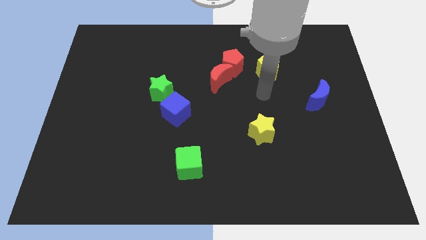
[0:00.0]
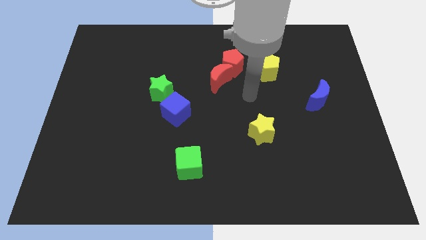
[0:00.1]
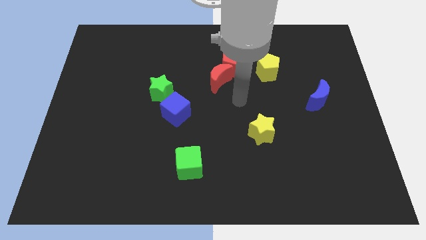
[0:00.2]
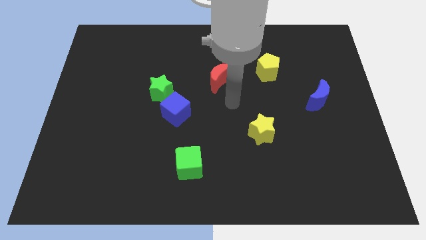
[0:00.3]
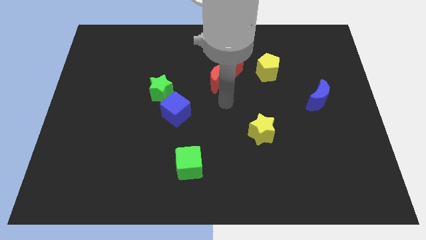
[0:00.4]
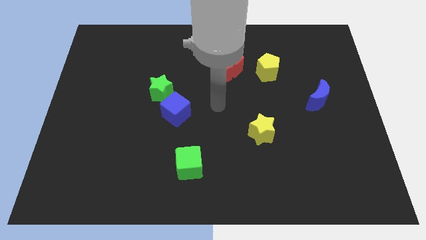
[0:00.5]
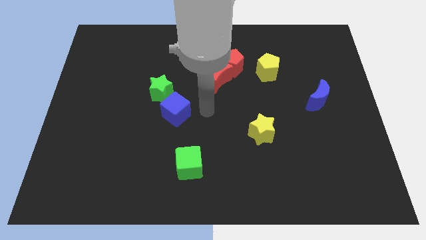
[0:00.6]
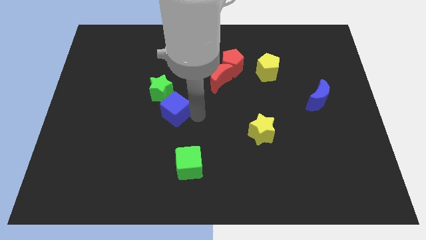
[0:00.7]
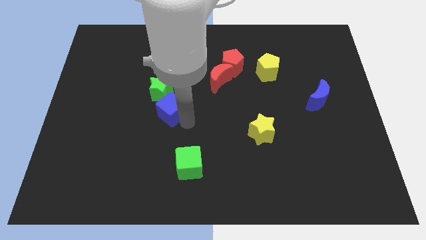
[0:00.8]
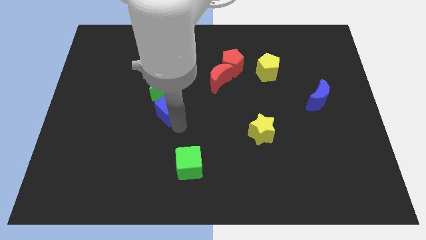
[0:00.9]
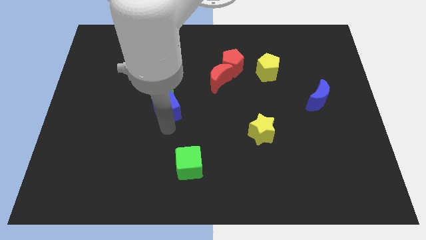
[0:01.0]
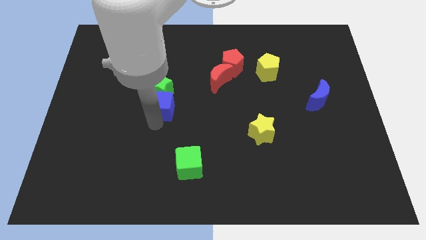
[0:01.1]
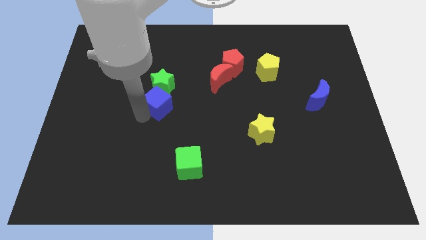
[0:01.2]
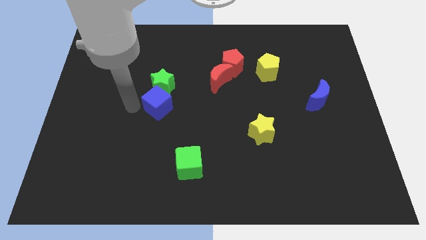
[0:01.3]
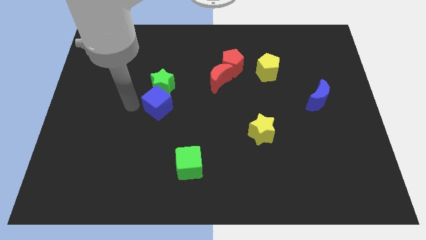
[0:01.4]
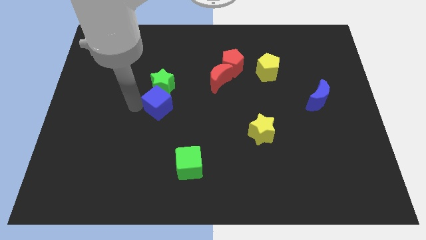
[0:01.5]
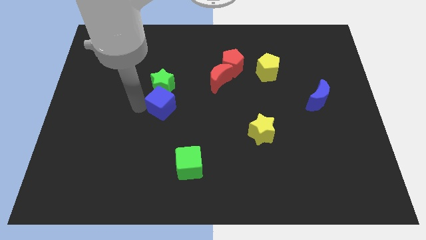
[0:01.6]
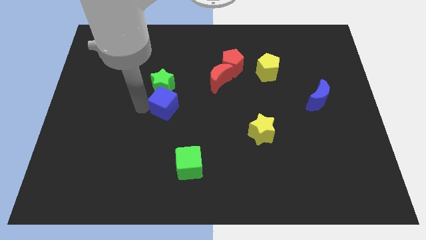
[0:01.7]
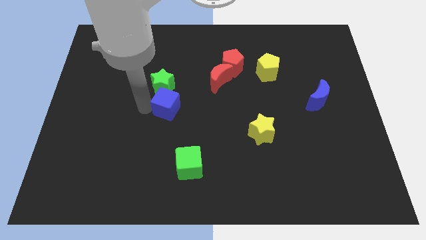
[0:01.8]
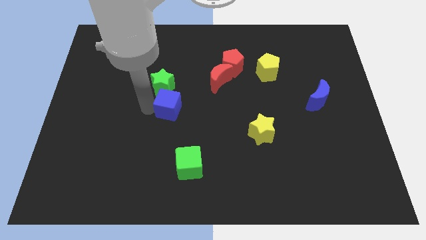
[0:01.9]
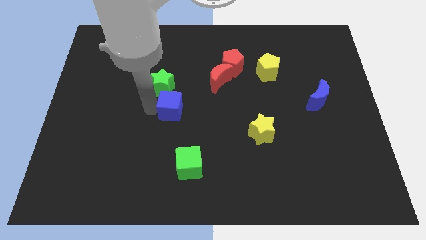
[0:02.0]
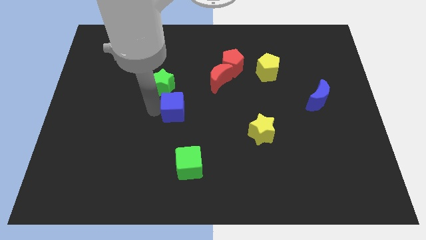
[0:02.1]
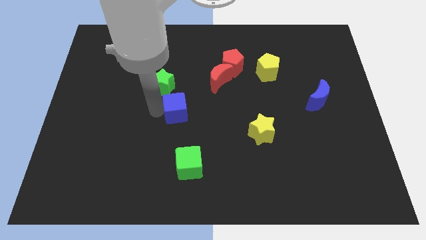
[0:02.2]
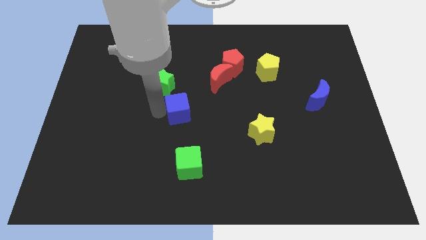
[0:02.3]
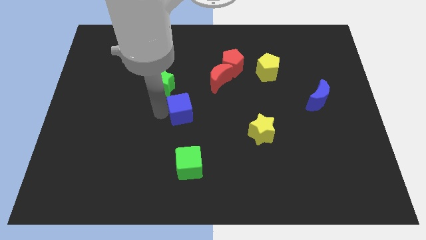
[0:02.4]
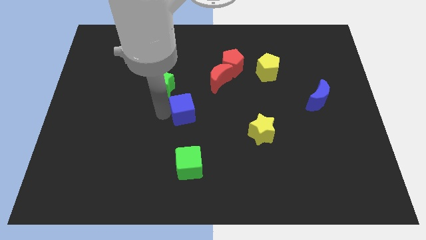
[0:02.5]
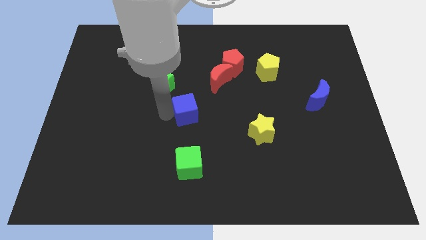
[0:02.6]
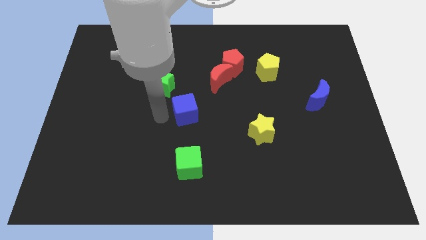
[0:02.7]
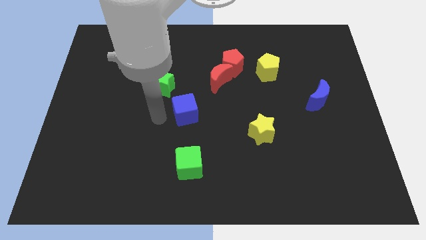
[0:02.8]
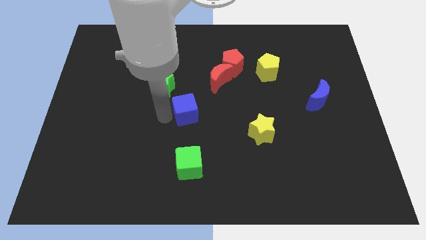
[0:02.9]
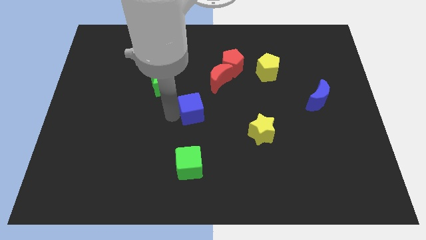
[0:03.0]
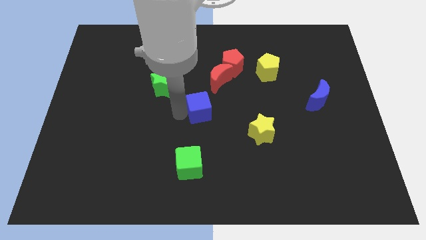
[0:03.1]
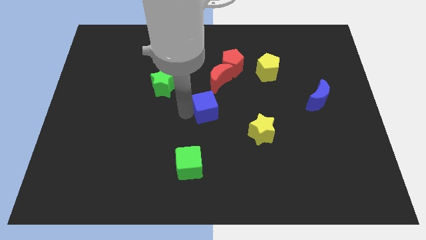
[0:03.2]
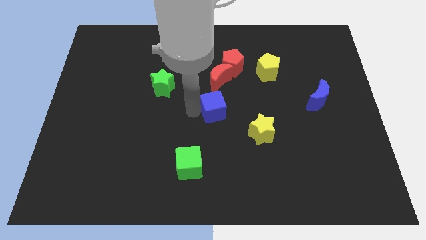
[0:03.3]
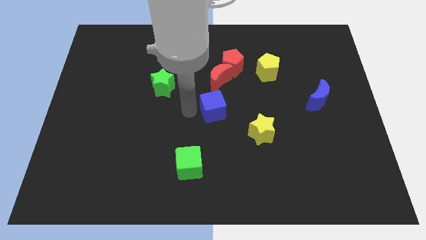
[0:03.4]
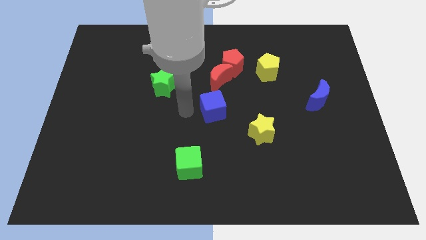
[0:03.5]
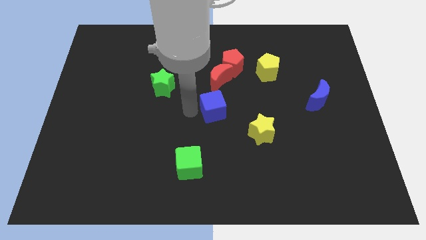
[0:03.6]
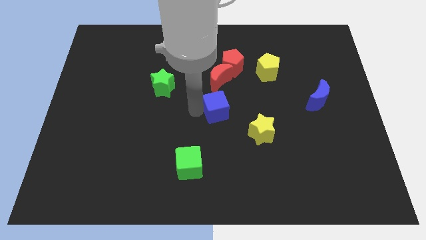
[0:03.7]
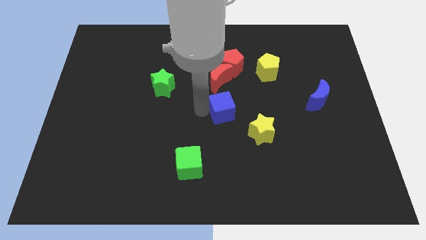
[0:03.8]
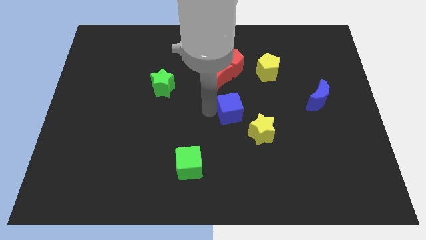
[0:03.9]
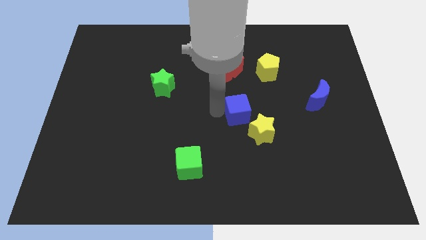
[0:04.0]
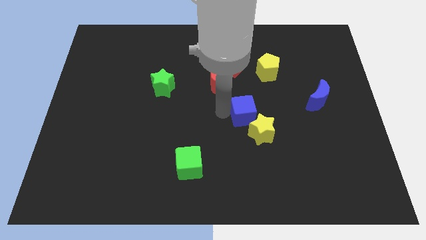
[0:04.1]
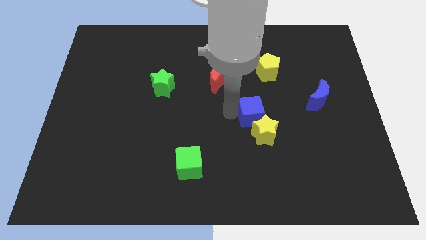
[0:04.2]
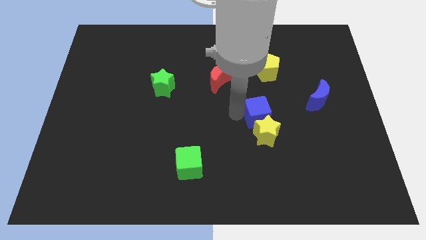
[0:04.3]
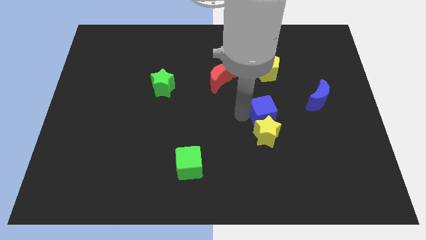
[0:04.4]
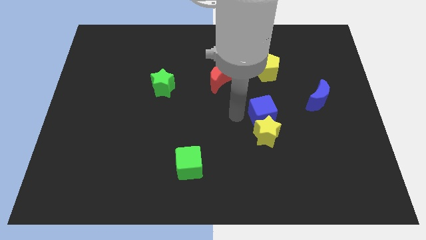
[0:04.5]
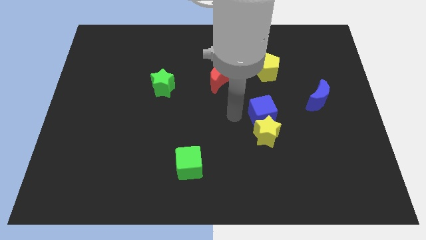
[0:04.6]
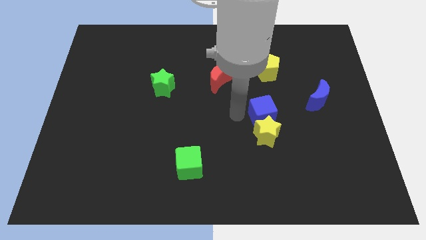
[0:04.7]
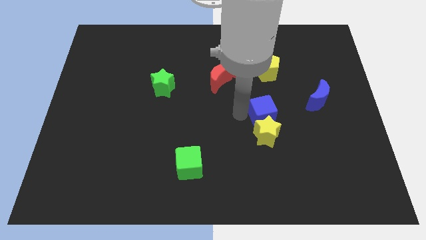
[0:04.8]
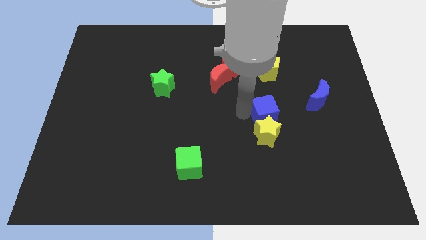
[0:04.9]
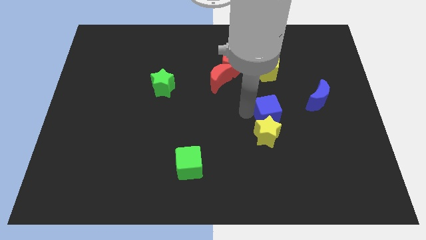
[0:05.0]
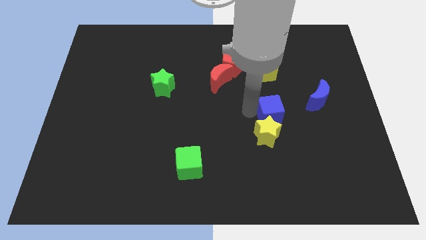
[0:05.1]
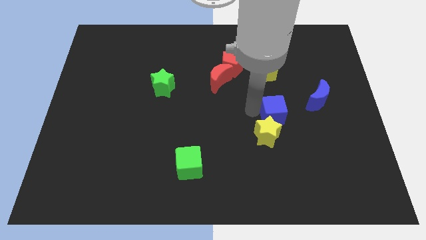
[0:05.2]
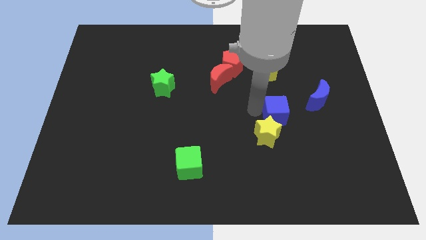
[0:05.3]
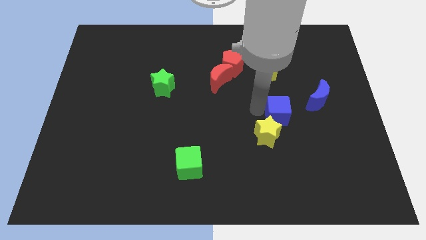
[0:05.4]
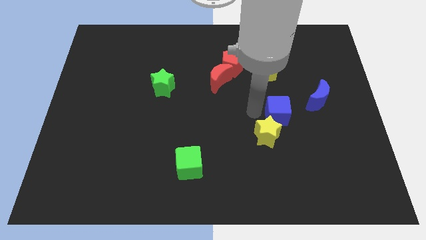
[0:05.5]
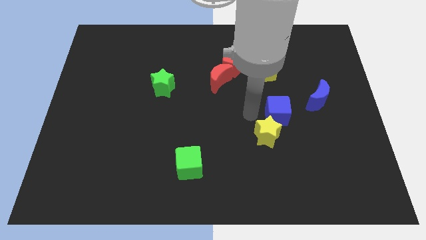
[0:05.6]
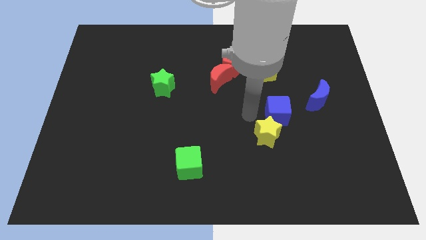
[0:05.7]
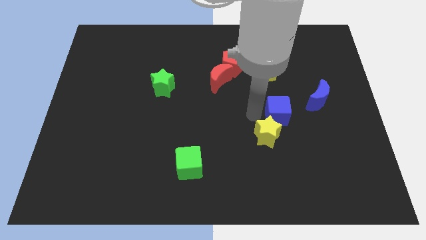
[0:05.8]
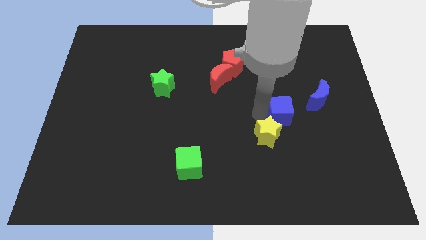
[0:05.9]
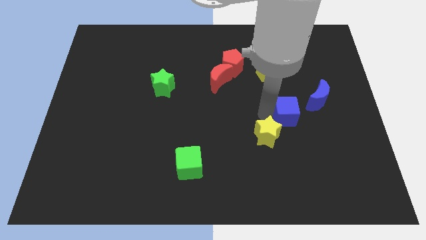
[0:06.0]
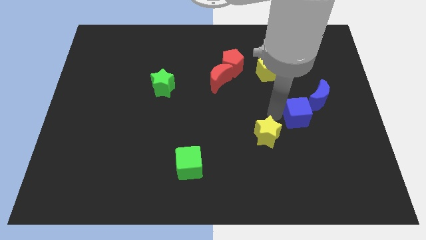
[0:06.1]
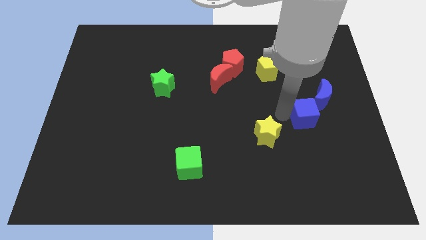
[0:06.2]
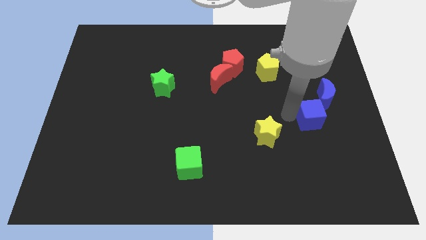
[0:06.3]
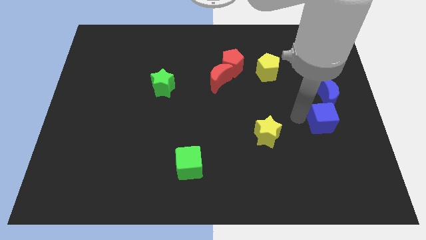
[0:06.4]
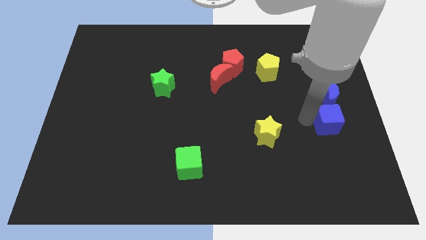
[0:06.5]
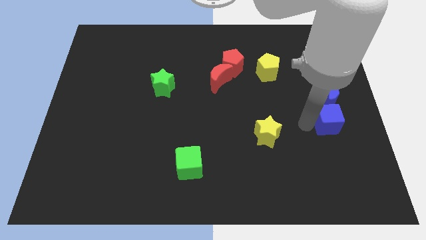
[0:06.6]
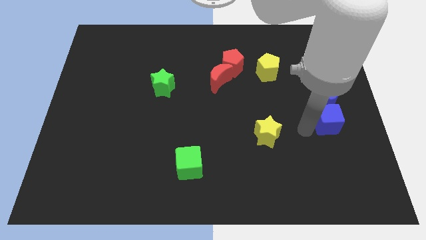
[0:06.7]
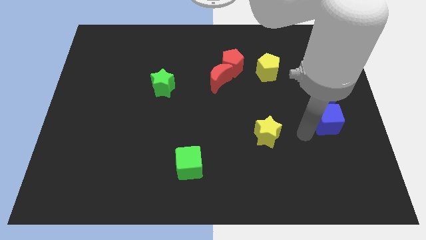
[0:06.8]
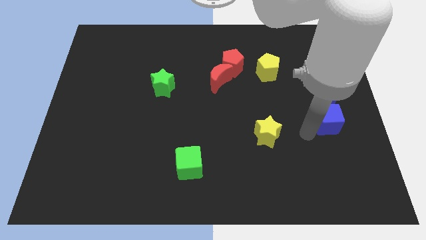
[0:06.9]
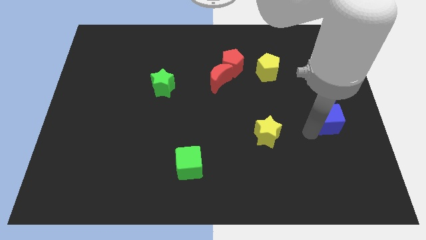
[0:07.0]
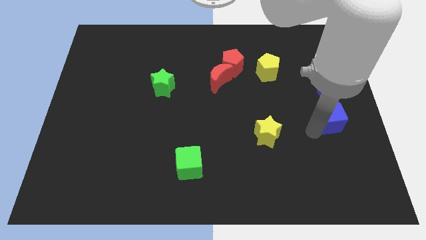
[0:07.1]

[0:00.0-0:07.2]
push the blue cube to the center right

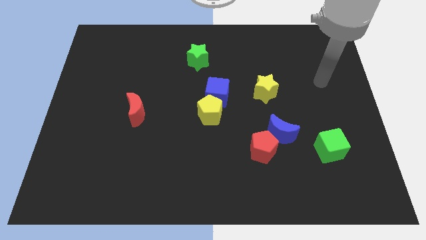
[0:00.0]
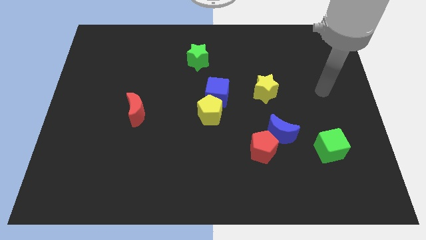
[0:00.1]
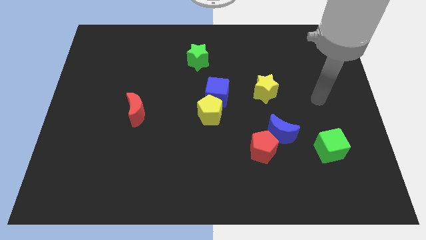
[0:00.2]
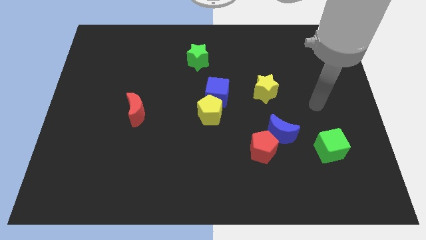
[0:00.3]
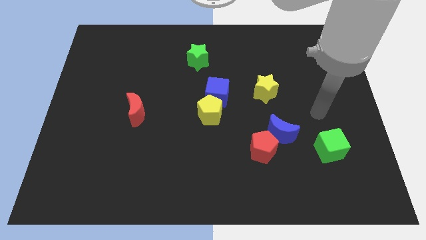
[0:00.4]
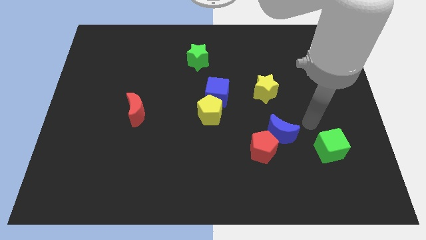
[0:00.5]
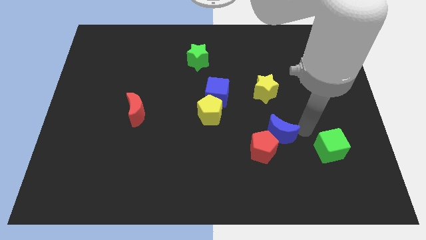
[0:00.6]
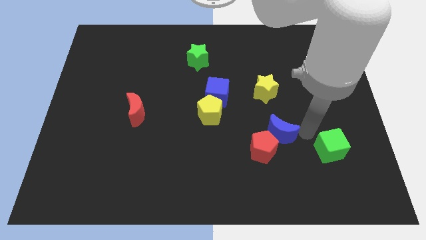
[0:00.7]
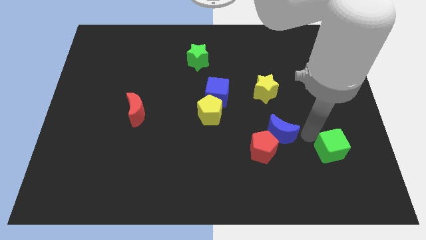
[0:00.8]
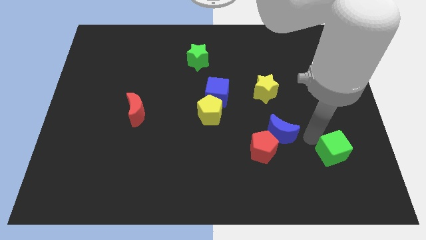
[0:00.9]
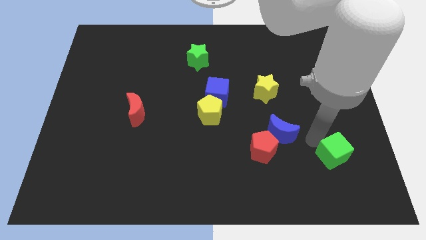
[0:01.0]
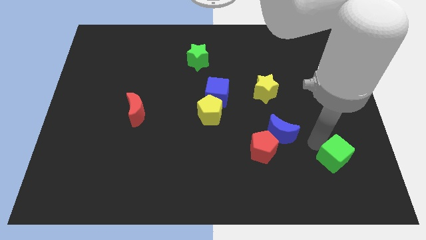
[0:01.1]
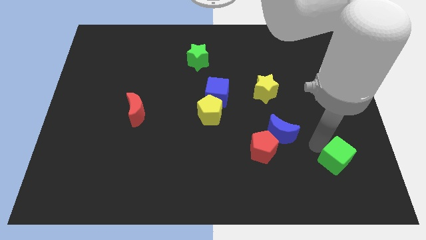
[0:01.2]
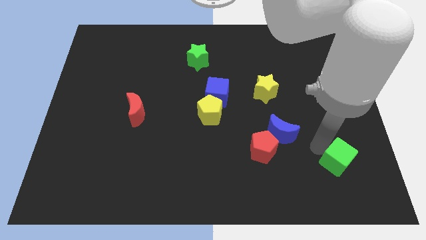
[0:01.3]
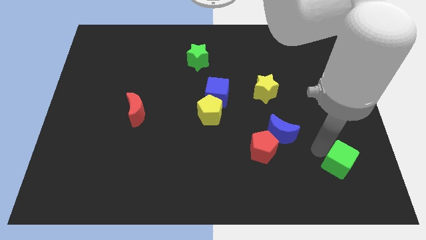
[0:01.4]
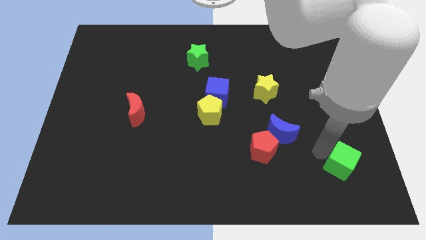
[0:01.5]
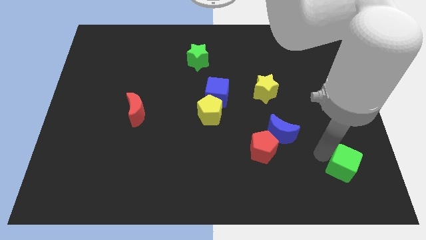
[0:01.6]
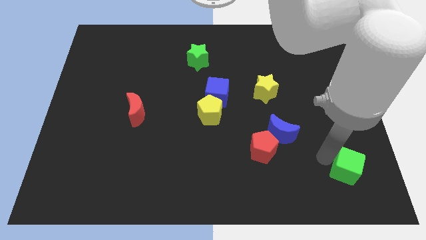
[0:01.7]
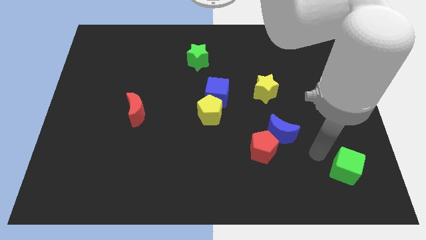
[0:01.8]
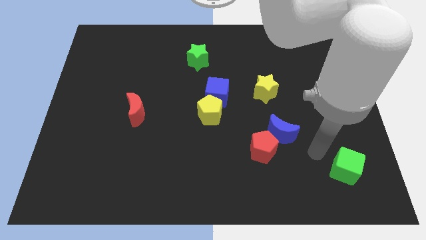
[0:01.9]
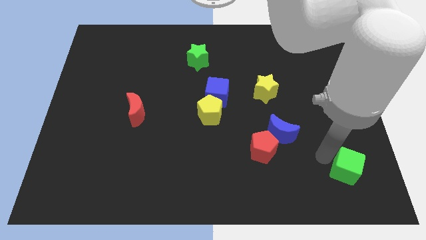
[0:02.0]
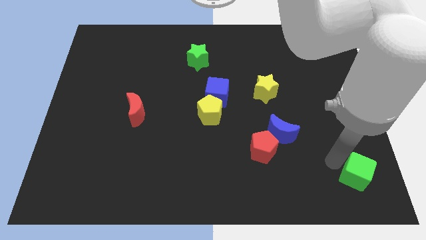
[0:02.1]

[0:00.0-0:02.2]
move the green cube to the bottom right
